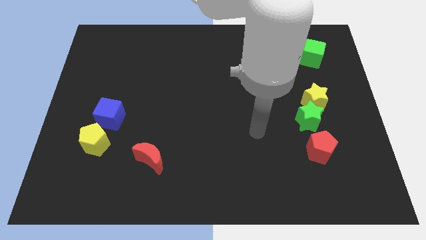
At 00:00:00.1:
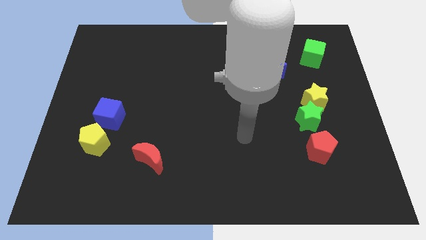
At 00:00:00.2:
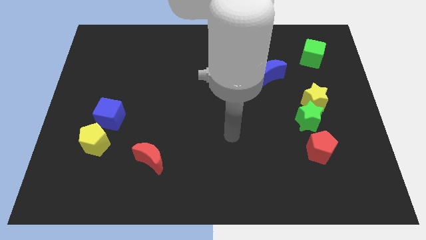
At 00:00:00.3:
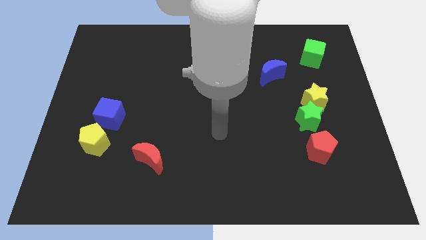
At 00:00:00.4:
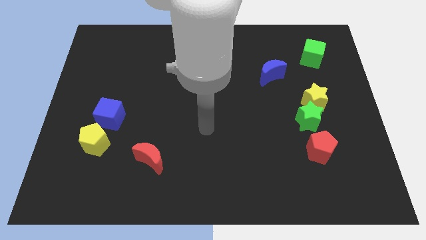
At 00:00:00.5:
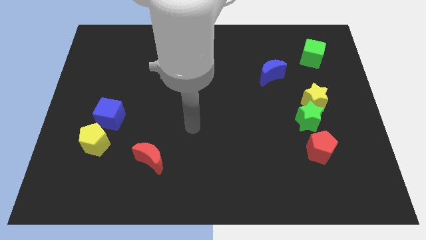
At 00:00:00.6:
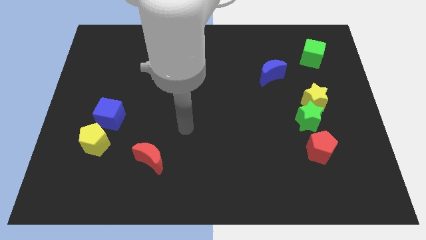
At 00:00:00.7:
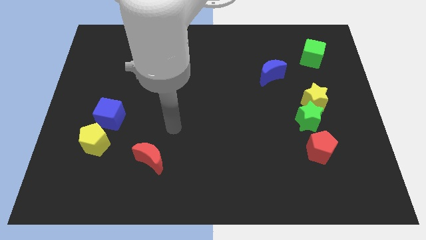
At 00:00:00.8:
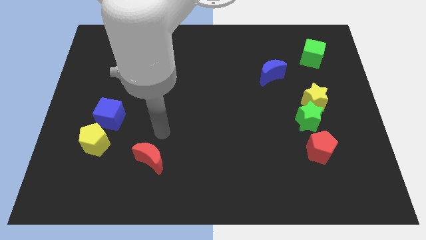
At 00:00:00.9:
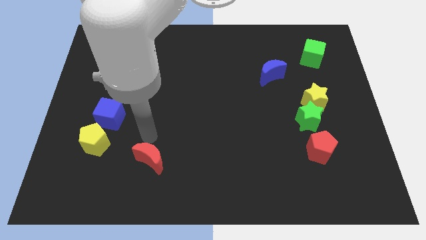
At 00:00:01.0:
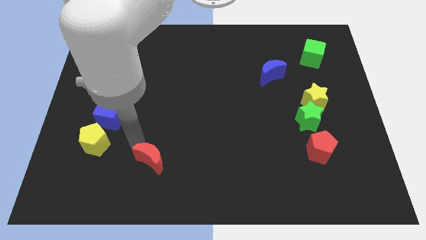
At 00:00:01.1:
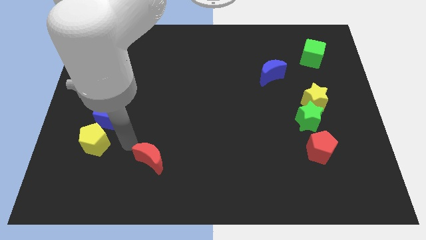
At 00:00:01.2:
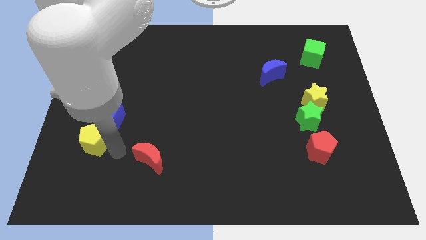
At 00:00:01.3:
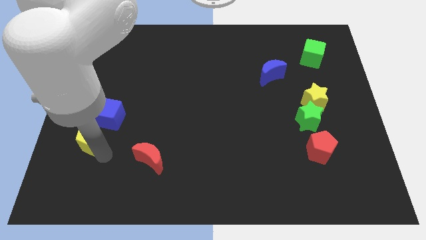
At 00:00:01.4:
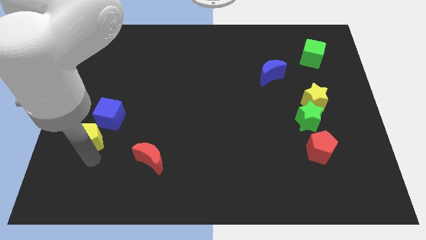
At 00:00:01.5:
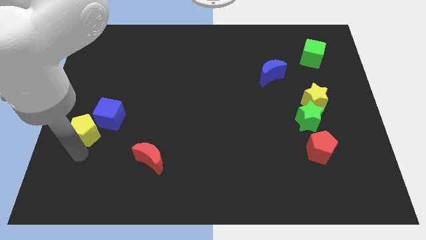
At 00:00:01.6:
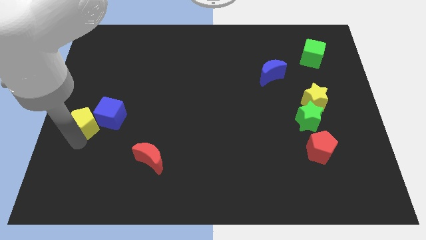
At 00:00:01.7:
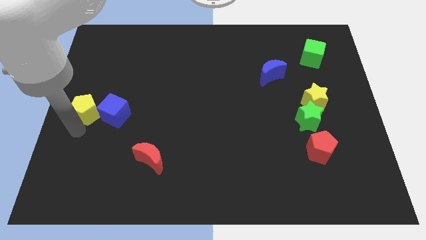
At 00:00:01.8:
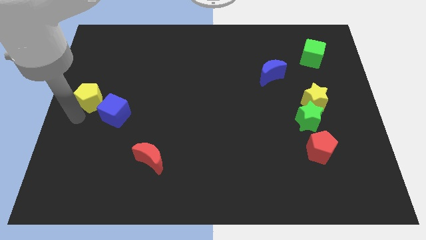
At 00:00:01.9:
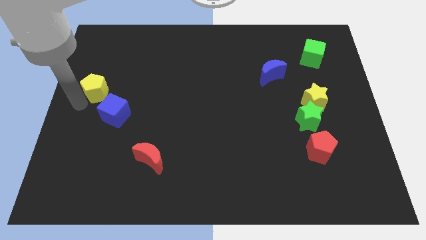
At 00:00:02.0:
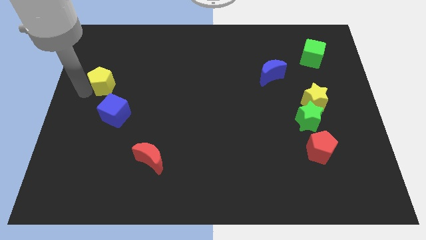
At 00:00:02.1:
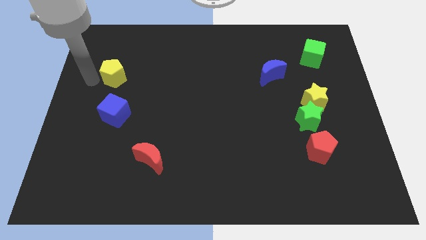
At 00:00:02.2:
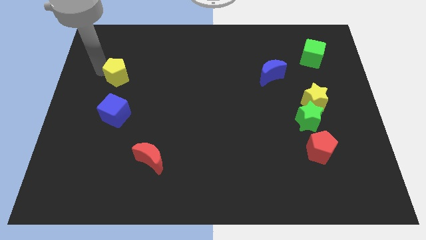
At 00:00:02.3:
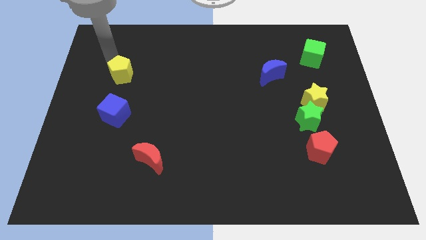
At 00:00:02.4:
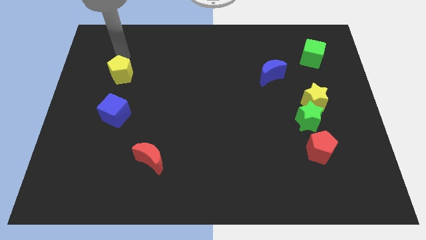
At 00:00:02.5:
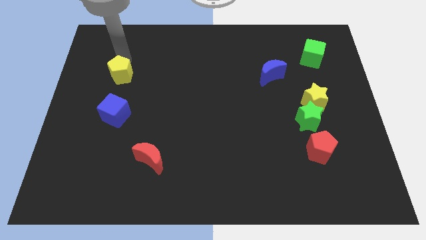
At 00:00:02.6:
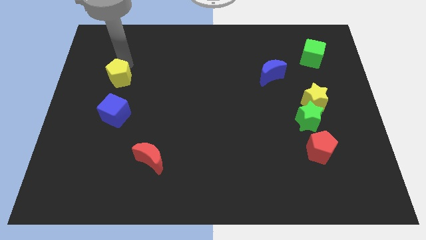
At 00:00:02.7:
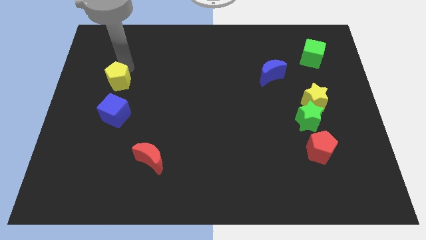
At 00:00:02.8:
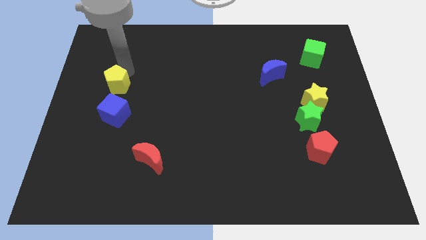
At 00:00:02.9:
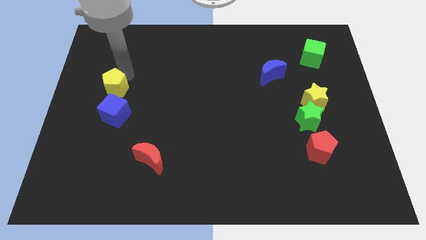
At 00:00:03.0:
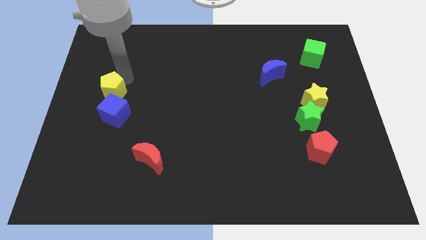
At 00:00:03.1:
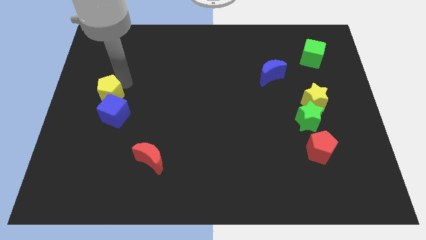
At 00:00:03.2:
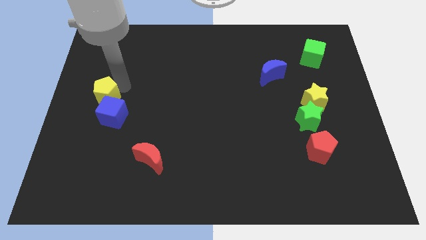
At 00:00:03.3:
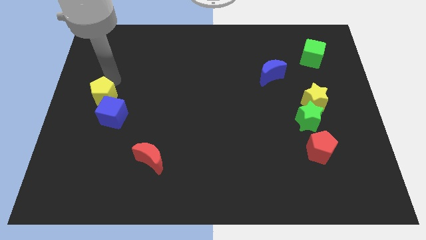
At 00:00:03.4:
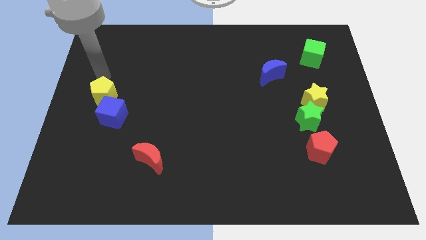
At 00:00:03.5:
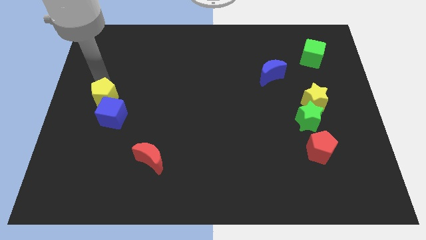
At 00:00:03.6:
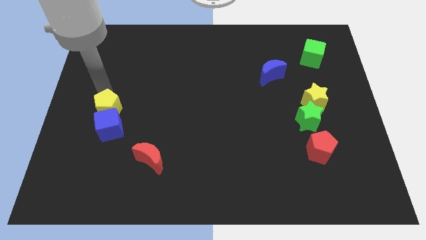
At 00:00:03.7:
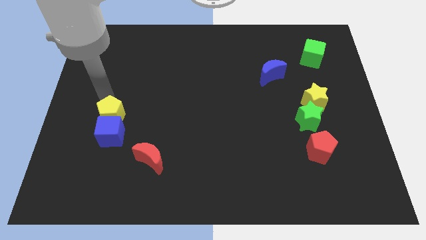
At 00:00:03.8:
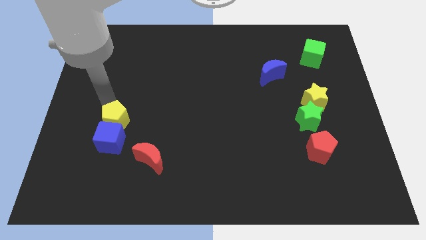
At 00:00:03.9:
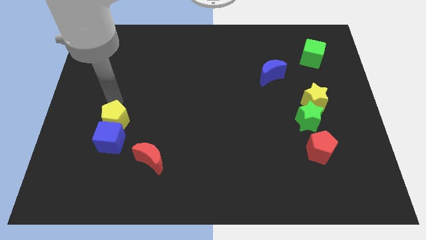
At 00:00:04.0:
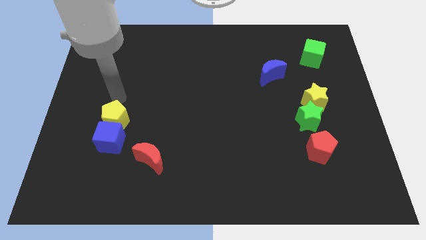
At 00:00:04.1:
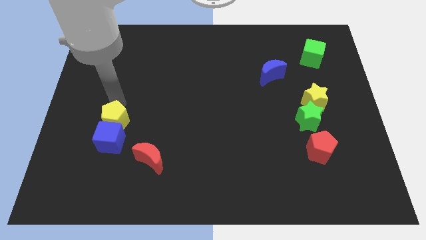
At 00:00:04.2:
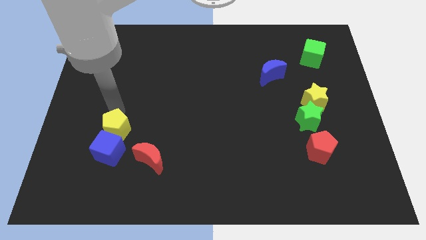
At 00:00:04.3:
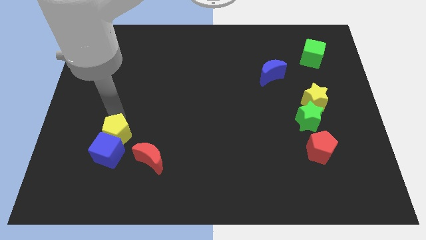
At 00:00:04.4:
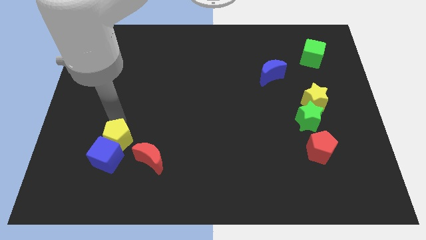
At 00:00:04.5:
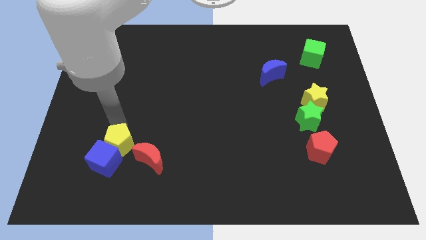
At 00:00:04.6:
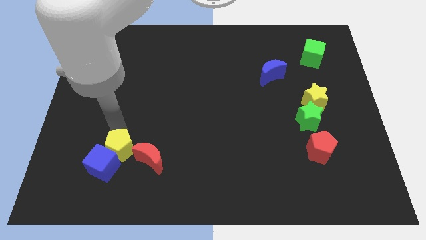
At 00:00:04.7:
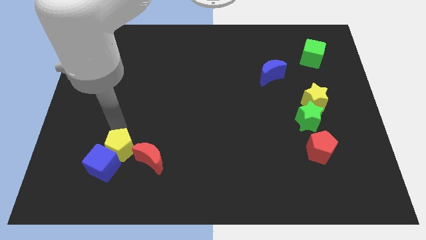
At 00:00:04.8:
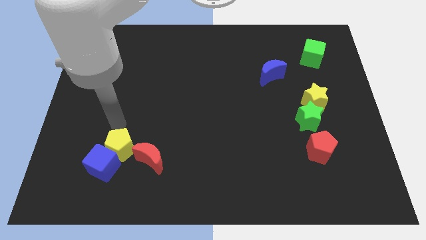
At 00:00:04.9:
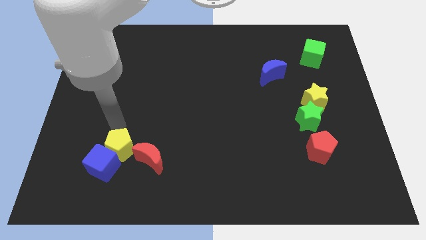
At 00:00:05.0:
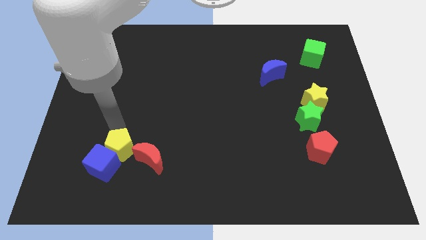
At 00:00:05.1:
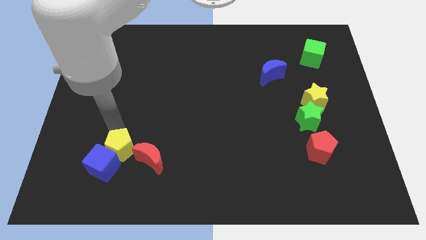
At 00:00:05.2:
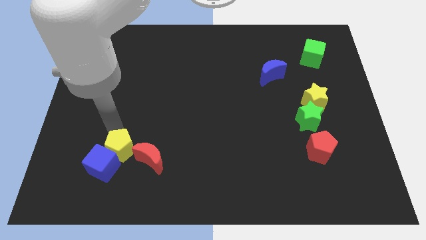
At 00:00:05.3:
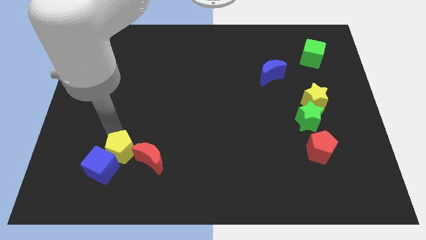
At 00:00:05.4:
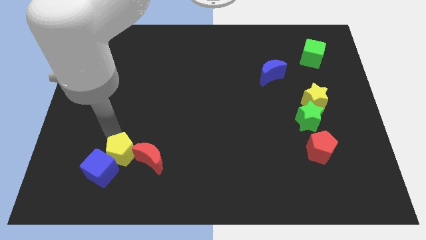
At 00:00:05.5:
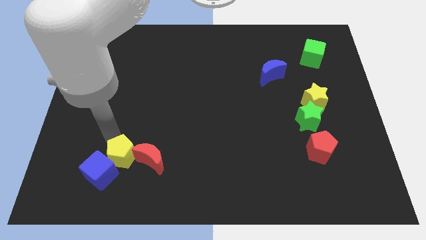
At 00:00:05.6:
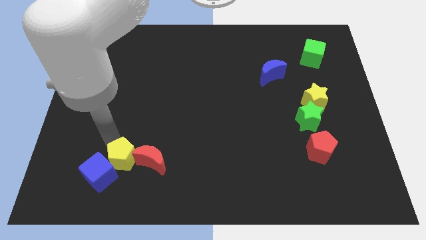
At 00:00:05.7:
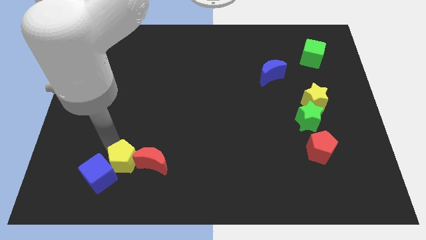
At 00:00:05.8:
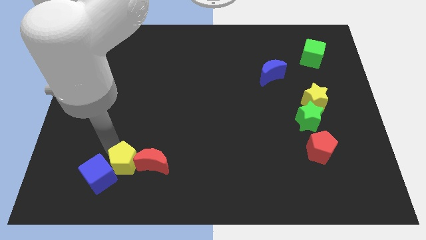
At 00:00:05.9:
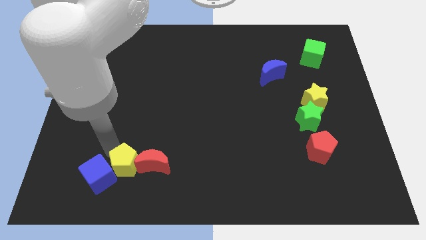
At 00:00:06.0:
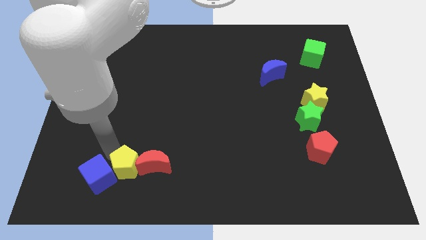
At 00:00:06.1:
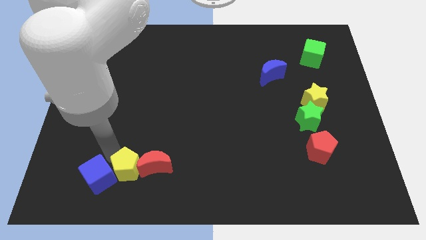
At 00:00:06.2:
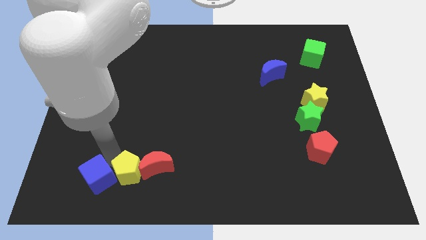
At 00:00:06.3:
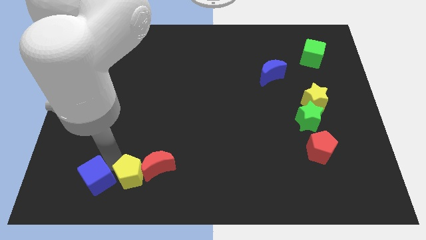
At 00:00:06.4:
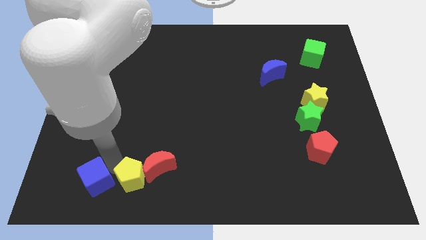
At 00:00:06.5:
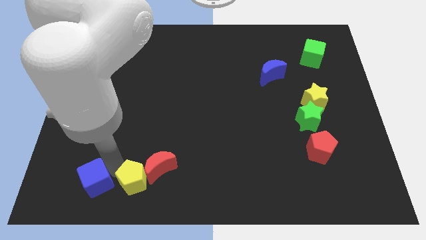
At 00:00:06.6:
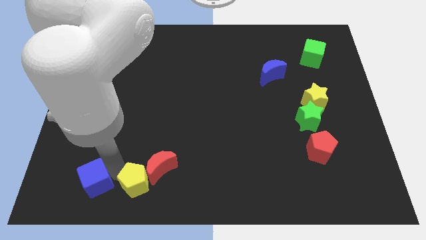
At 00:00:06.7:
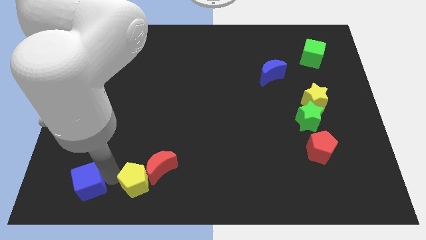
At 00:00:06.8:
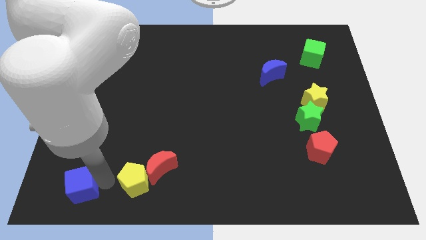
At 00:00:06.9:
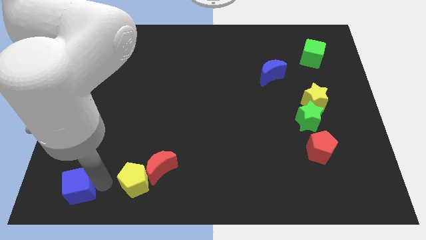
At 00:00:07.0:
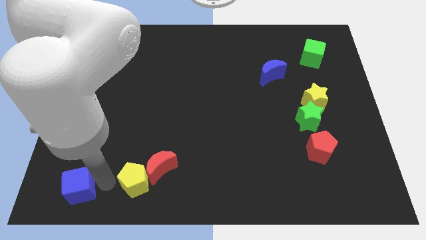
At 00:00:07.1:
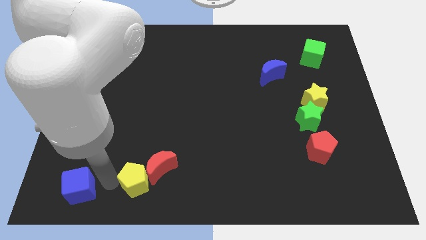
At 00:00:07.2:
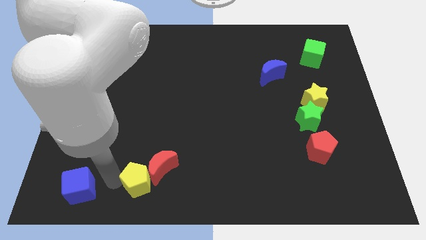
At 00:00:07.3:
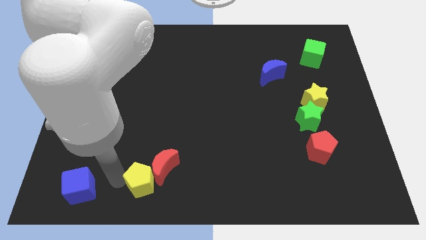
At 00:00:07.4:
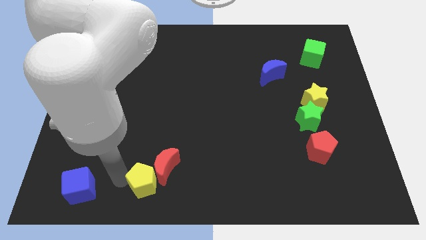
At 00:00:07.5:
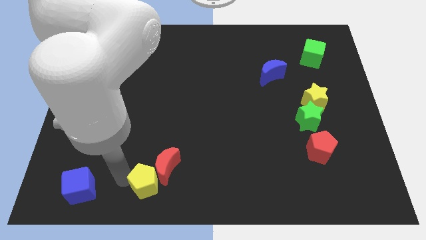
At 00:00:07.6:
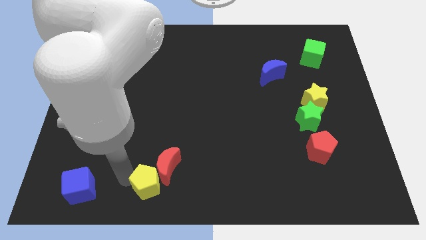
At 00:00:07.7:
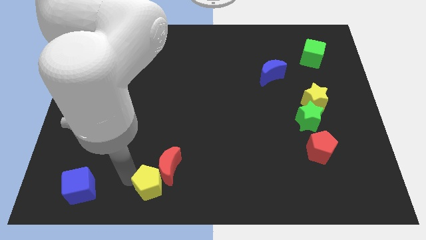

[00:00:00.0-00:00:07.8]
push the yellow pentagon to the bottom side
